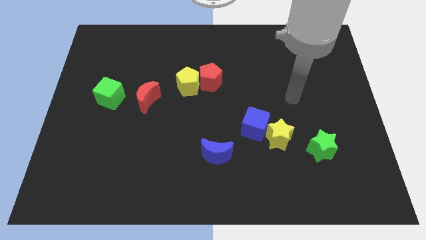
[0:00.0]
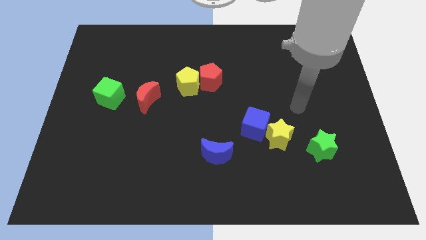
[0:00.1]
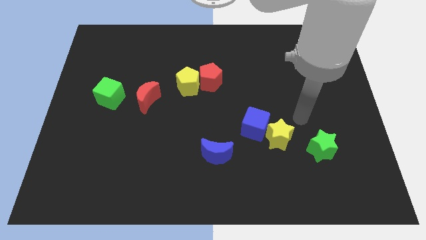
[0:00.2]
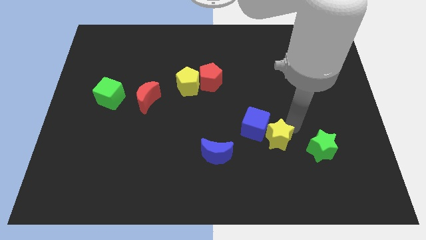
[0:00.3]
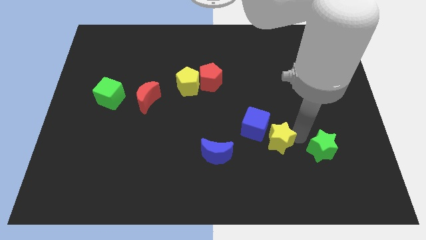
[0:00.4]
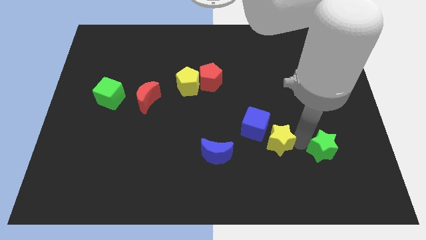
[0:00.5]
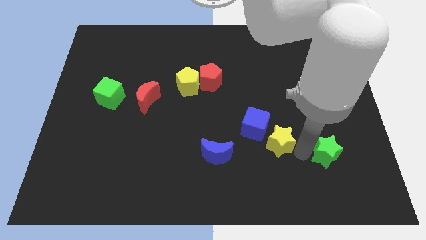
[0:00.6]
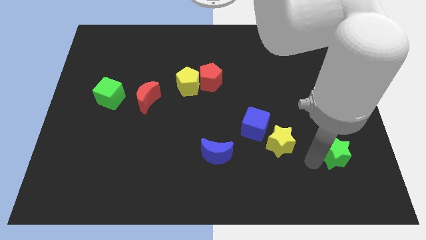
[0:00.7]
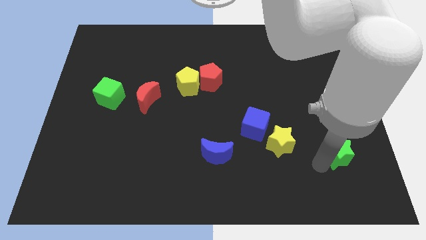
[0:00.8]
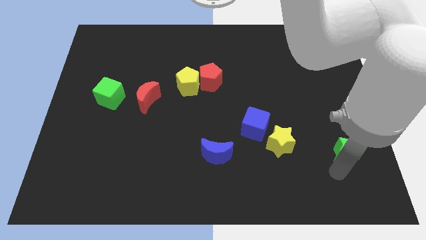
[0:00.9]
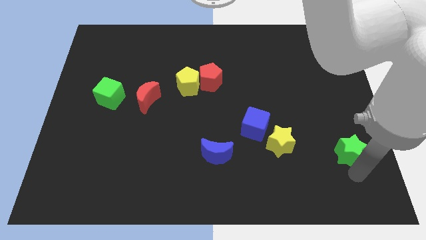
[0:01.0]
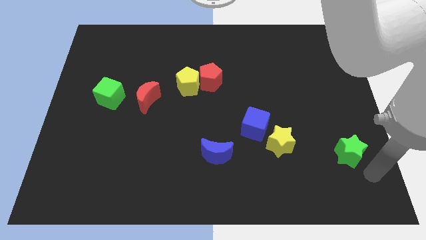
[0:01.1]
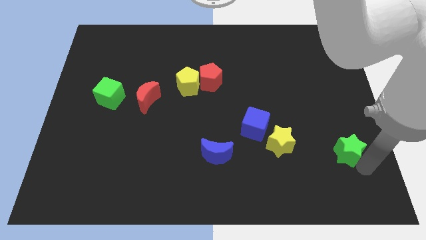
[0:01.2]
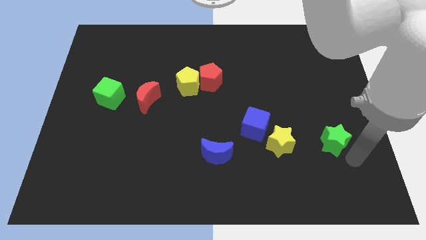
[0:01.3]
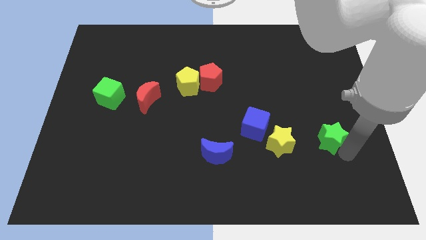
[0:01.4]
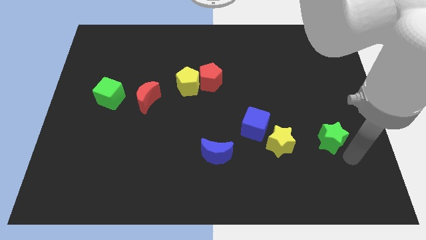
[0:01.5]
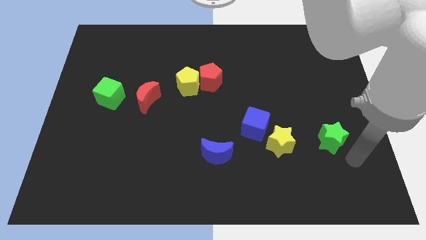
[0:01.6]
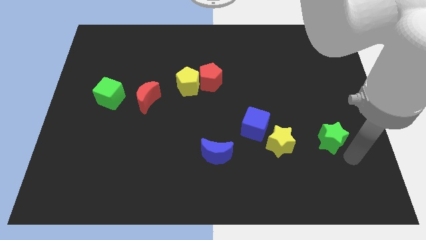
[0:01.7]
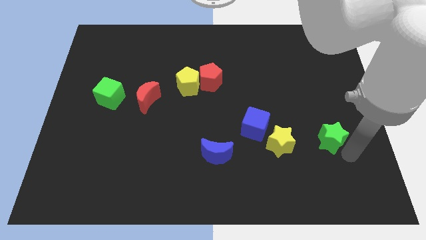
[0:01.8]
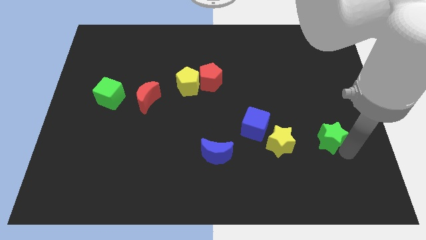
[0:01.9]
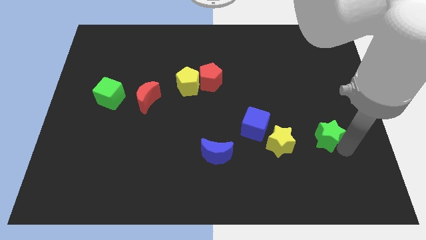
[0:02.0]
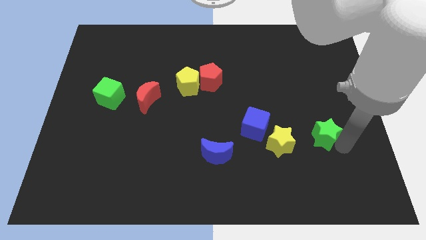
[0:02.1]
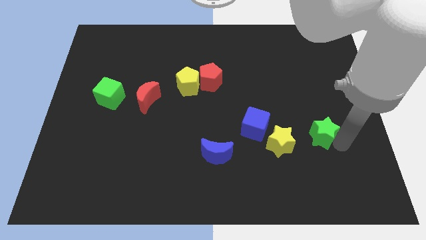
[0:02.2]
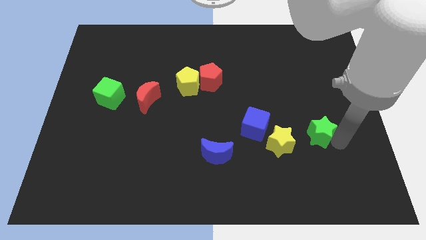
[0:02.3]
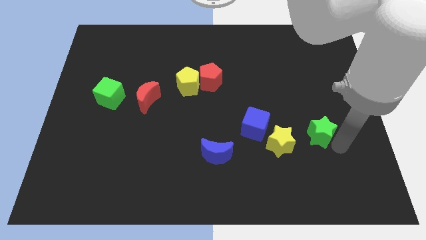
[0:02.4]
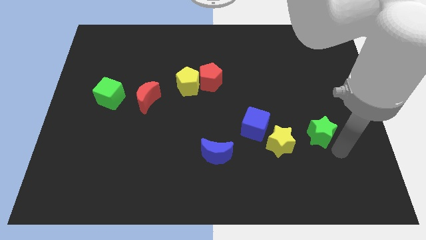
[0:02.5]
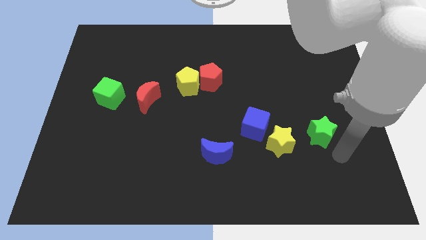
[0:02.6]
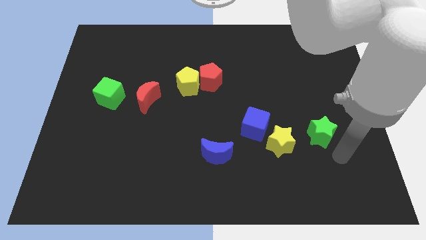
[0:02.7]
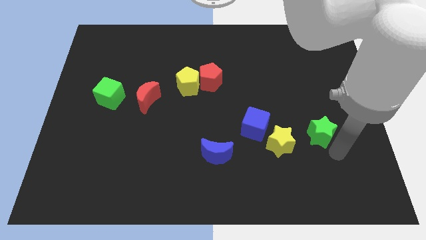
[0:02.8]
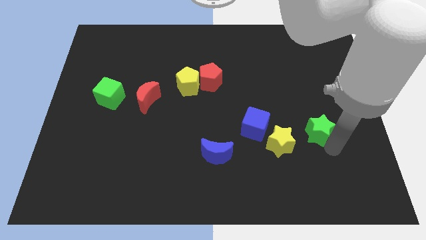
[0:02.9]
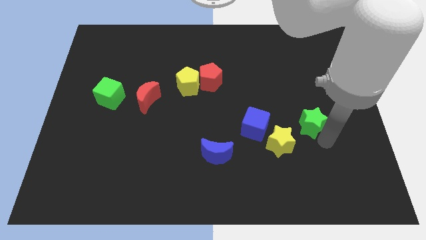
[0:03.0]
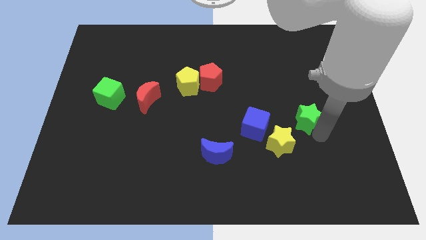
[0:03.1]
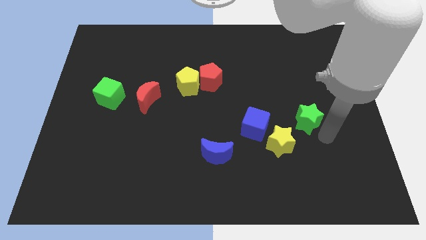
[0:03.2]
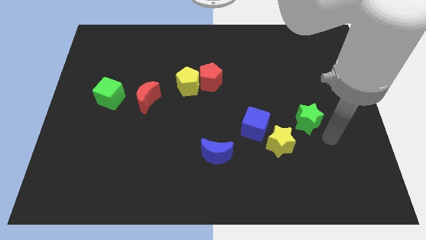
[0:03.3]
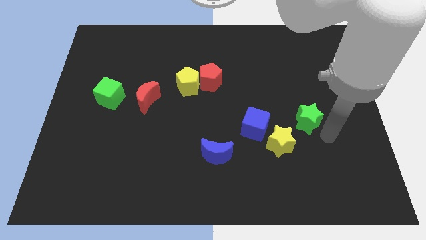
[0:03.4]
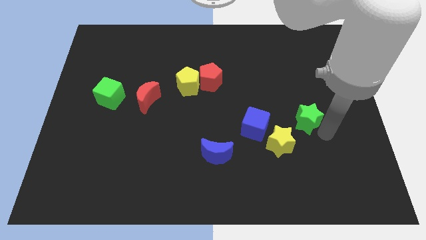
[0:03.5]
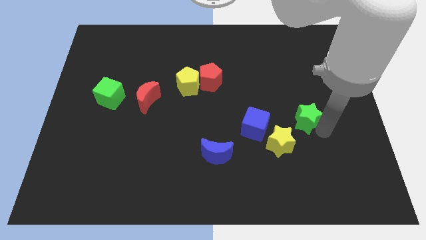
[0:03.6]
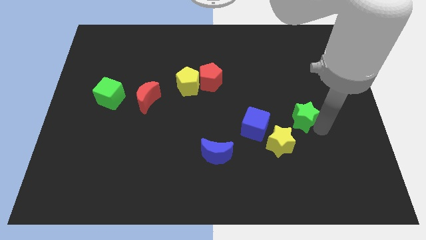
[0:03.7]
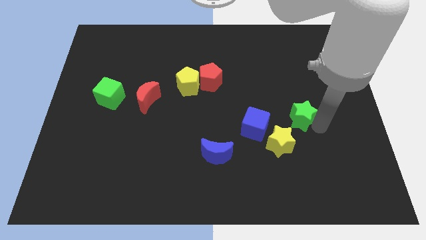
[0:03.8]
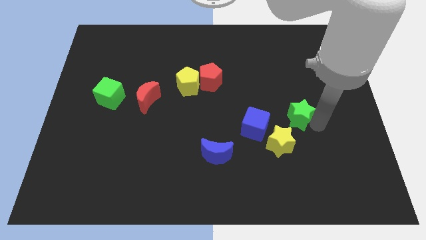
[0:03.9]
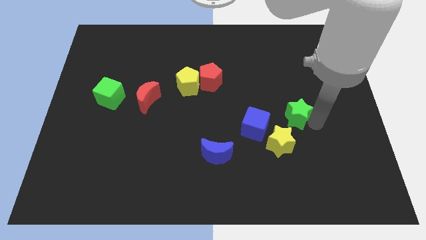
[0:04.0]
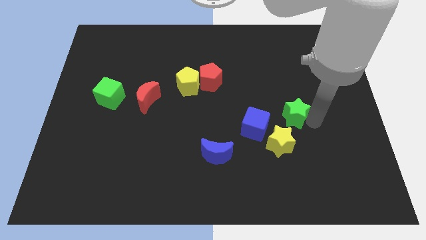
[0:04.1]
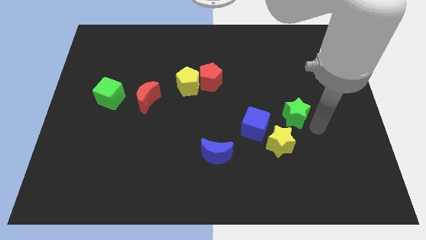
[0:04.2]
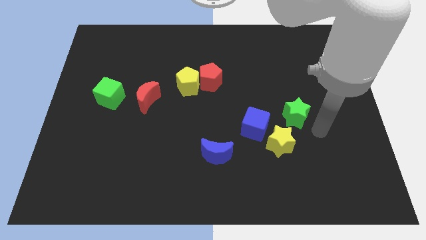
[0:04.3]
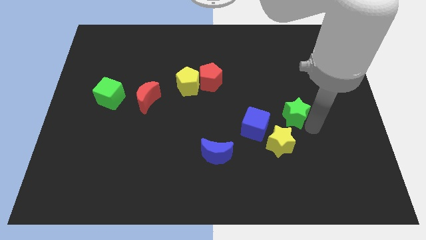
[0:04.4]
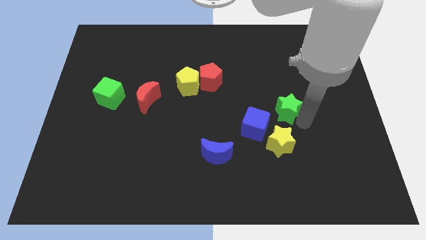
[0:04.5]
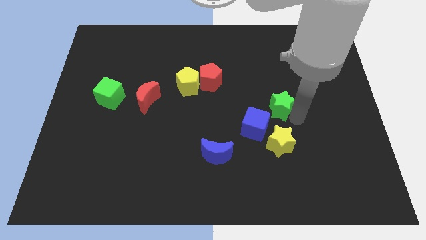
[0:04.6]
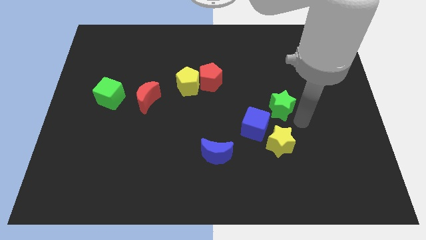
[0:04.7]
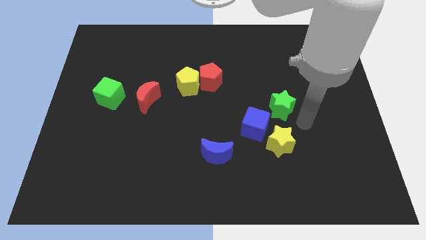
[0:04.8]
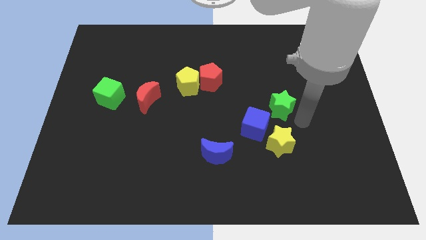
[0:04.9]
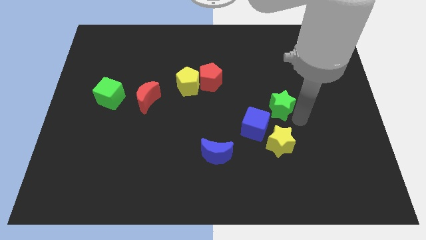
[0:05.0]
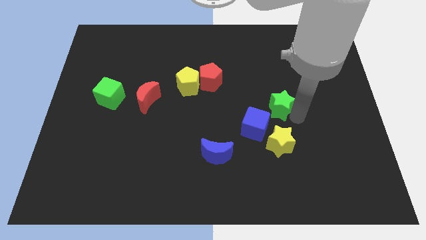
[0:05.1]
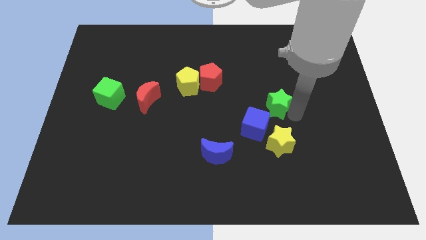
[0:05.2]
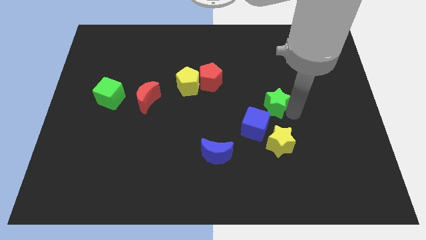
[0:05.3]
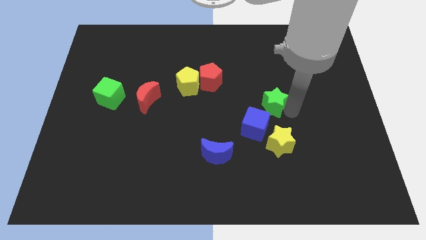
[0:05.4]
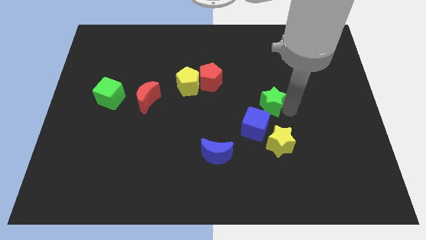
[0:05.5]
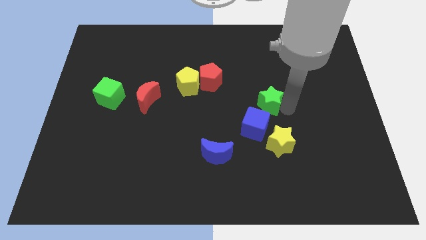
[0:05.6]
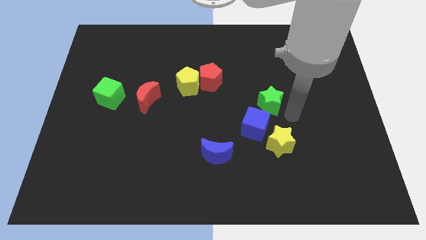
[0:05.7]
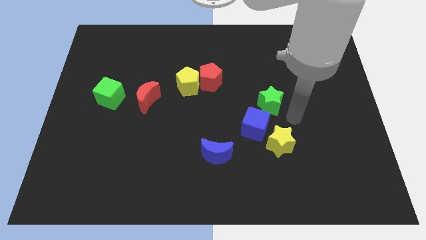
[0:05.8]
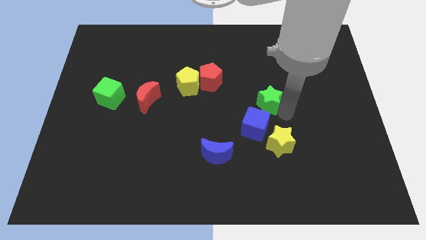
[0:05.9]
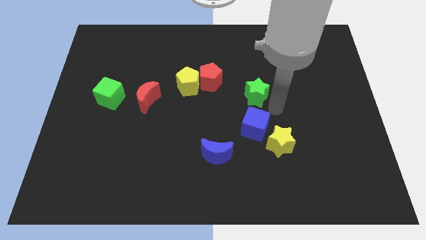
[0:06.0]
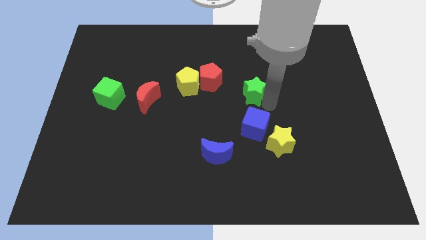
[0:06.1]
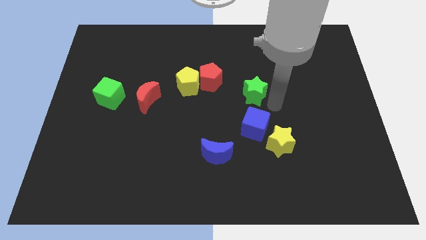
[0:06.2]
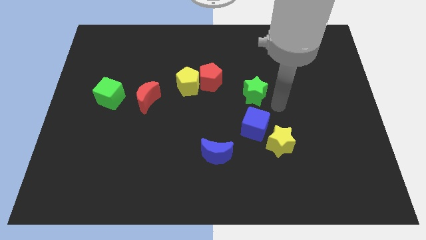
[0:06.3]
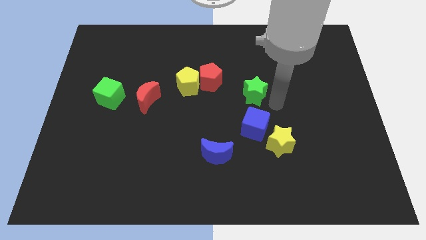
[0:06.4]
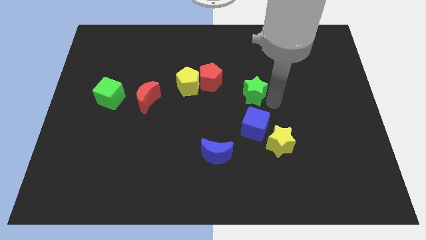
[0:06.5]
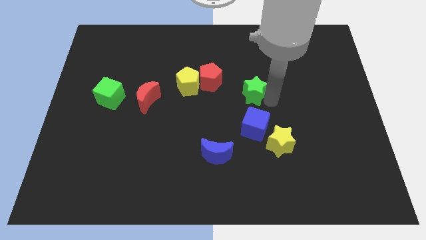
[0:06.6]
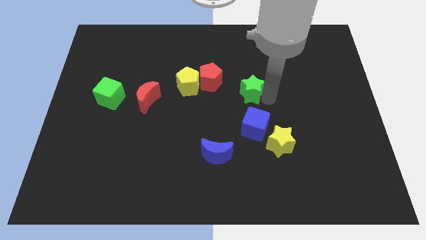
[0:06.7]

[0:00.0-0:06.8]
push the green star to the right of the yellow pentagon
